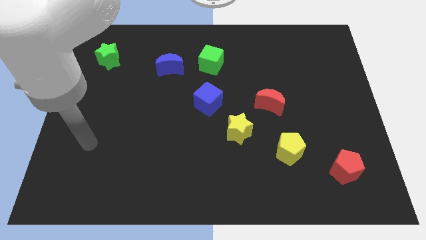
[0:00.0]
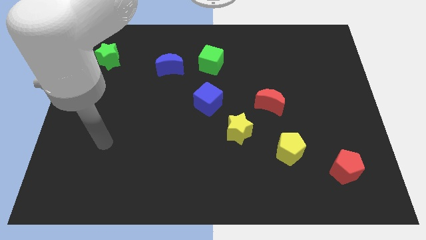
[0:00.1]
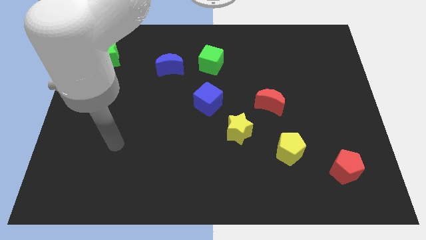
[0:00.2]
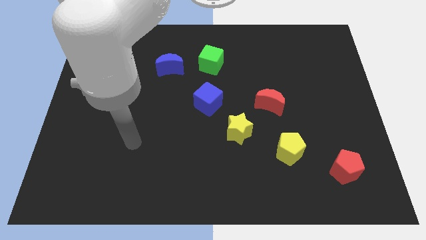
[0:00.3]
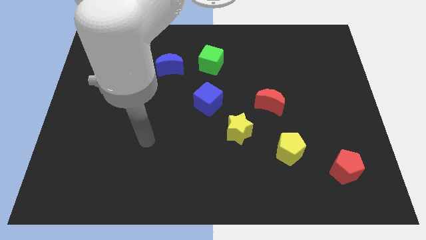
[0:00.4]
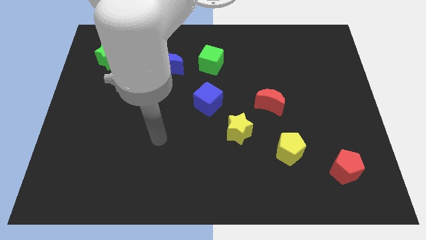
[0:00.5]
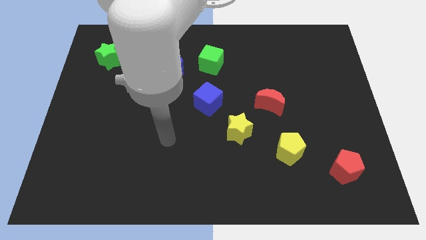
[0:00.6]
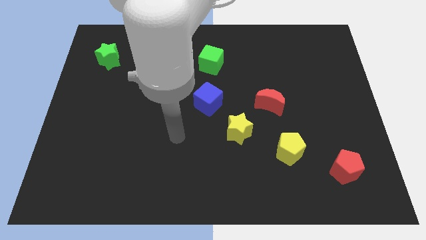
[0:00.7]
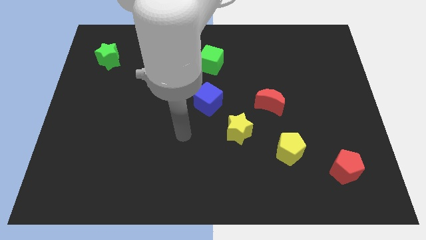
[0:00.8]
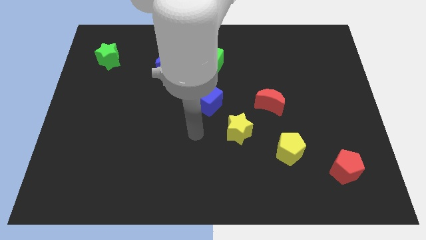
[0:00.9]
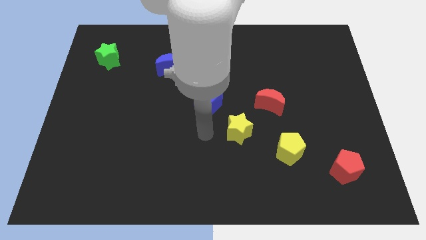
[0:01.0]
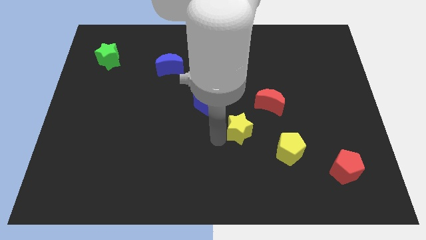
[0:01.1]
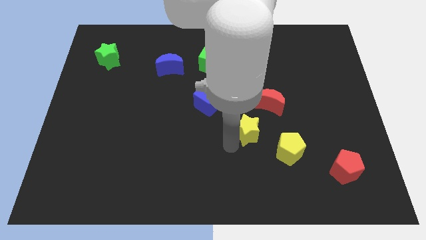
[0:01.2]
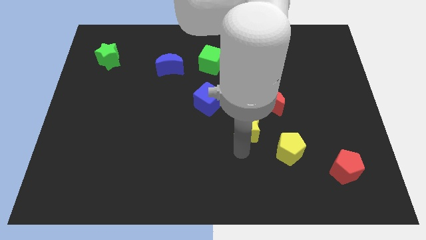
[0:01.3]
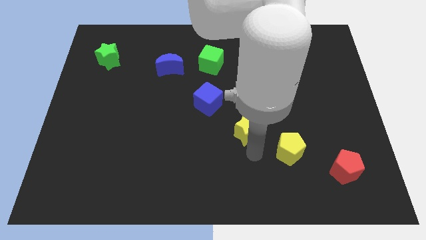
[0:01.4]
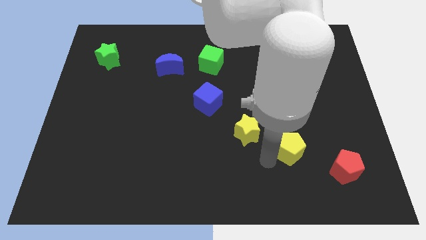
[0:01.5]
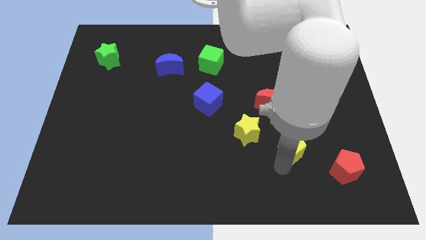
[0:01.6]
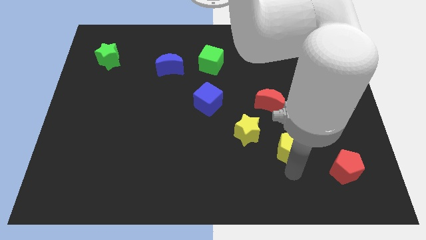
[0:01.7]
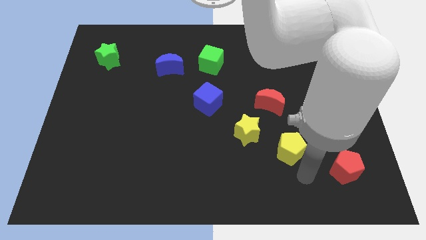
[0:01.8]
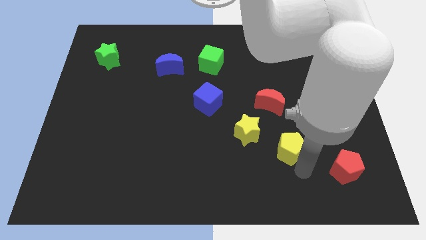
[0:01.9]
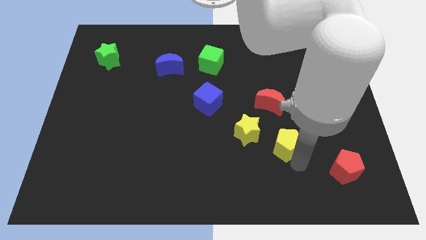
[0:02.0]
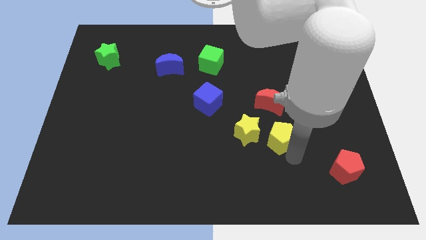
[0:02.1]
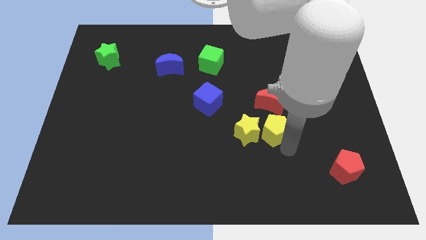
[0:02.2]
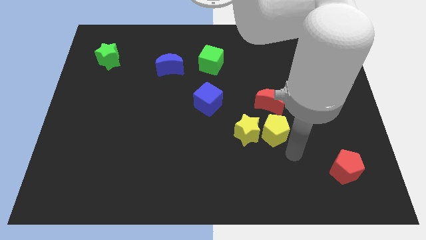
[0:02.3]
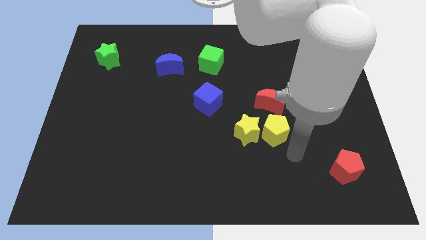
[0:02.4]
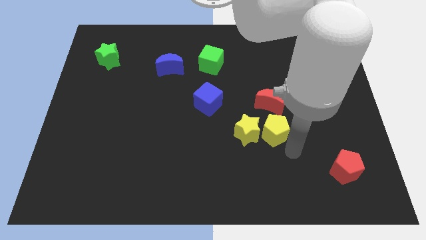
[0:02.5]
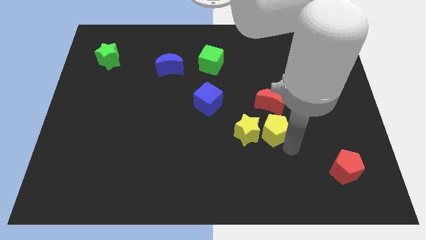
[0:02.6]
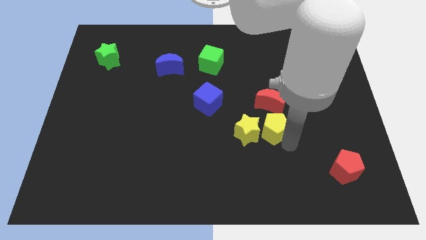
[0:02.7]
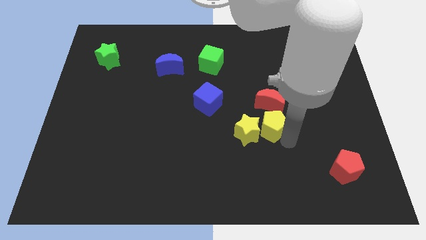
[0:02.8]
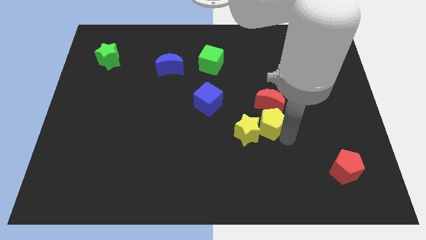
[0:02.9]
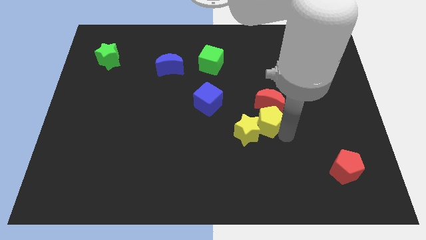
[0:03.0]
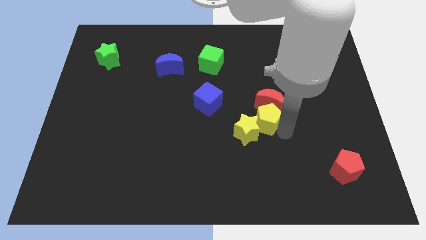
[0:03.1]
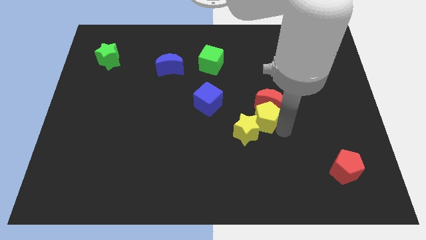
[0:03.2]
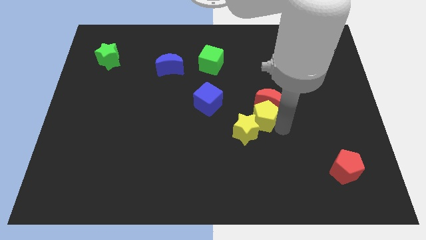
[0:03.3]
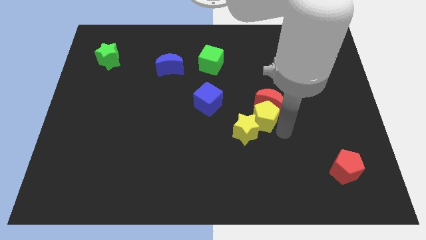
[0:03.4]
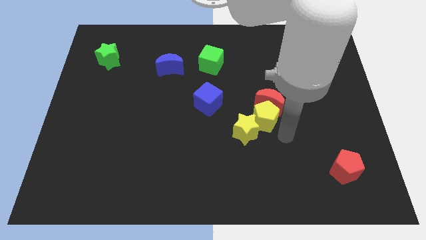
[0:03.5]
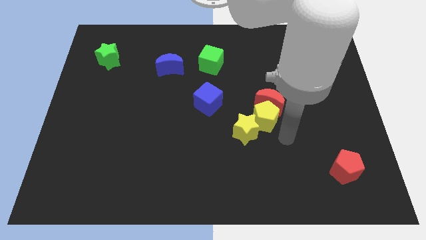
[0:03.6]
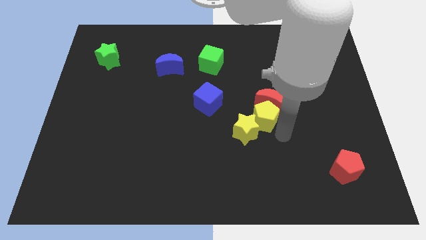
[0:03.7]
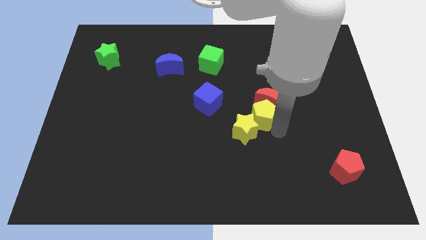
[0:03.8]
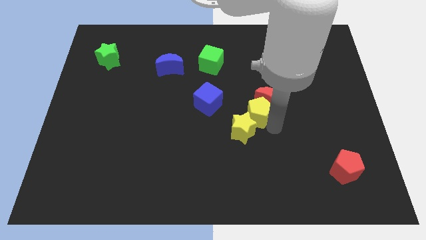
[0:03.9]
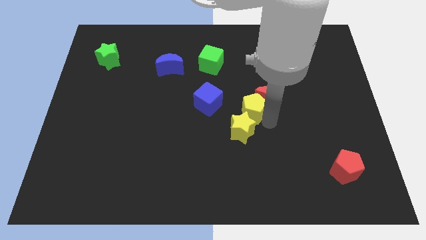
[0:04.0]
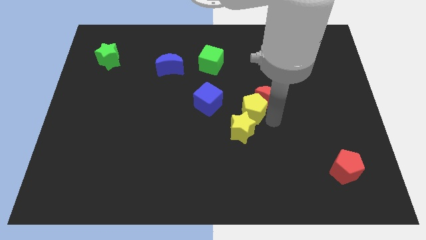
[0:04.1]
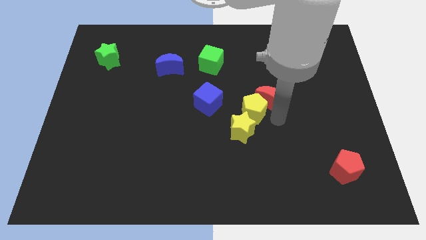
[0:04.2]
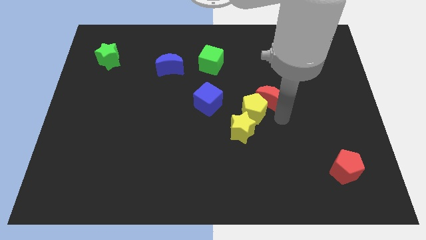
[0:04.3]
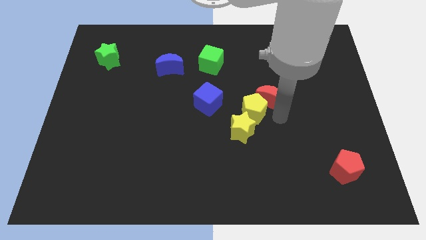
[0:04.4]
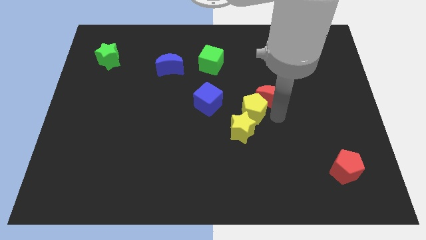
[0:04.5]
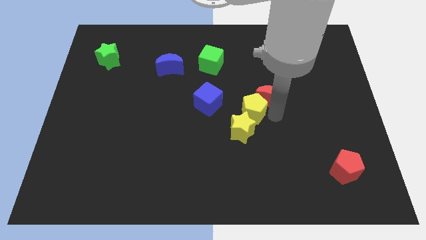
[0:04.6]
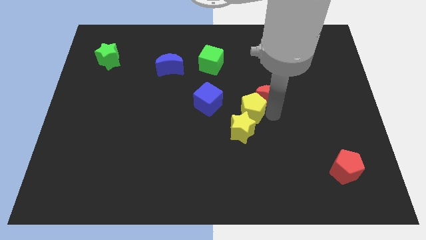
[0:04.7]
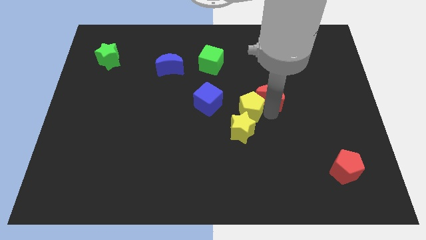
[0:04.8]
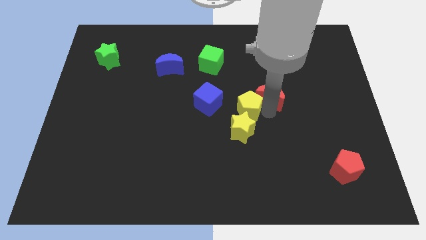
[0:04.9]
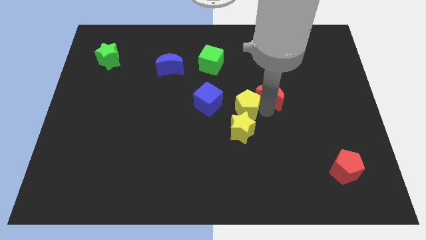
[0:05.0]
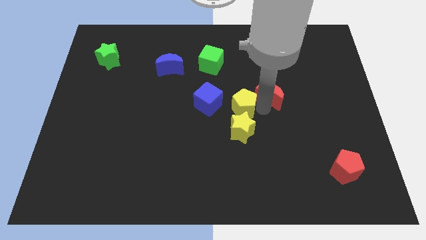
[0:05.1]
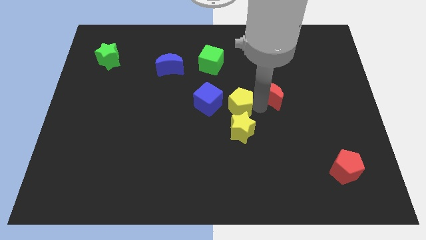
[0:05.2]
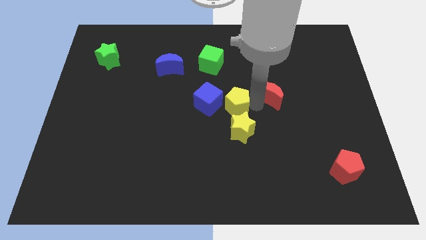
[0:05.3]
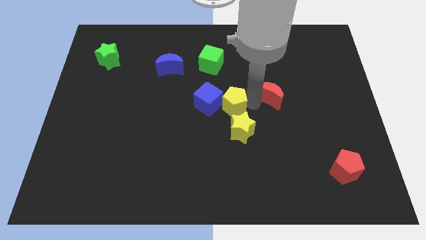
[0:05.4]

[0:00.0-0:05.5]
move the yellow pentagon towards the blue cube

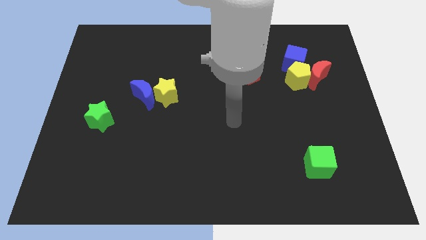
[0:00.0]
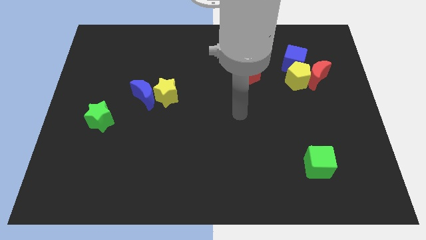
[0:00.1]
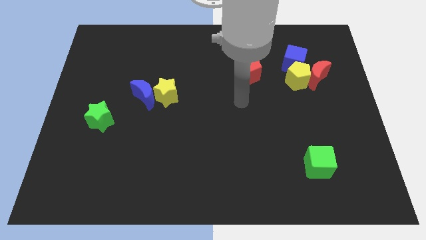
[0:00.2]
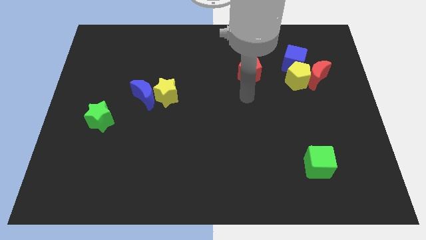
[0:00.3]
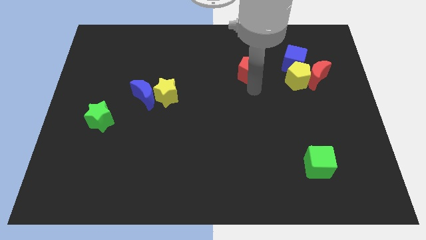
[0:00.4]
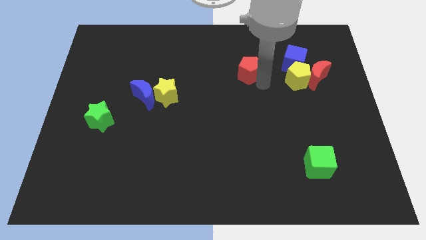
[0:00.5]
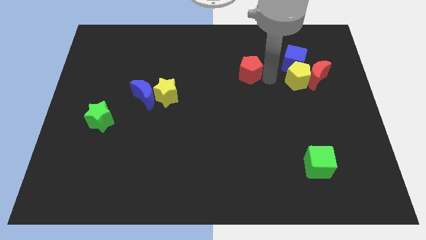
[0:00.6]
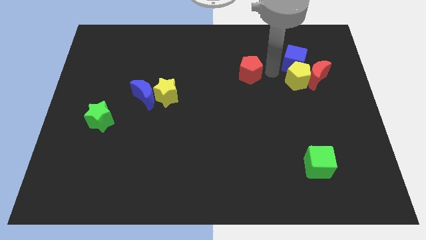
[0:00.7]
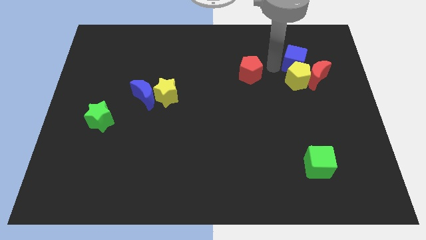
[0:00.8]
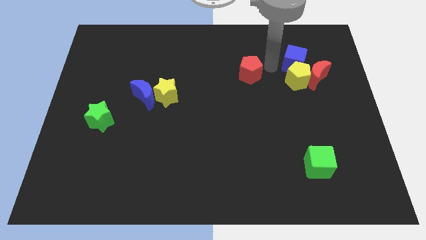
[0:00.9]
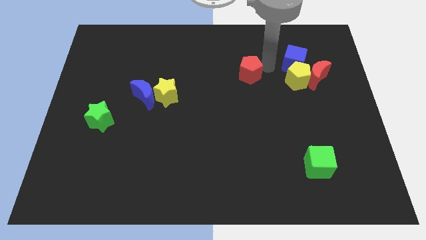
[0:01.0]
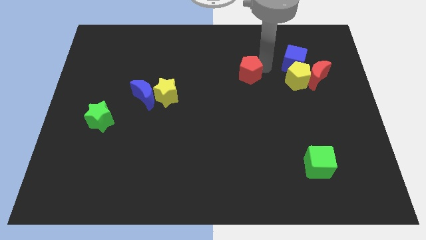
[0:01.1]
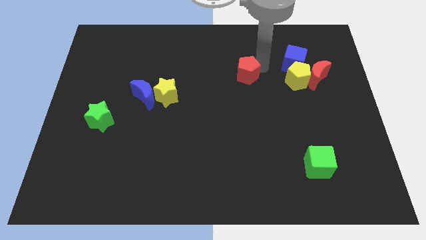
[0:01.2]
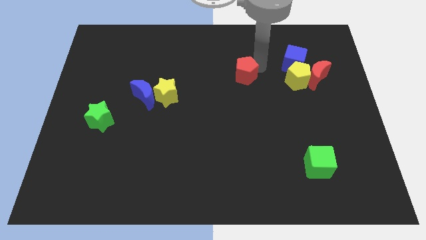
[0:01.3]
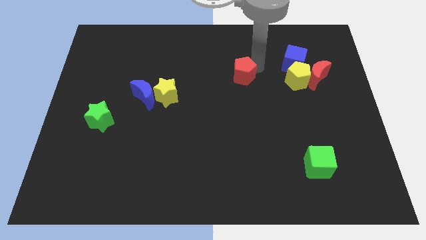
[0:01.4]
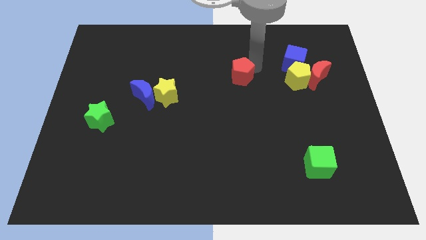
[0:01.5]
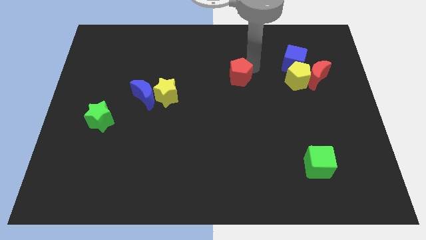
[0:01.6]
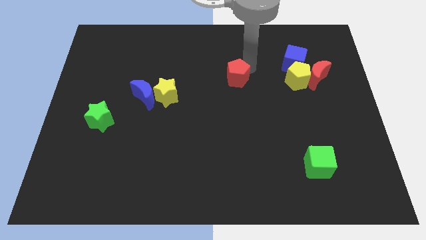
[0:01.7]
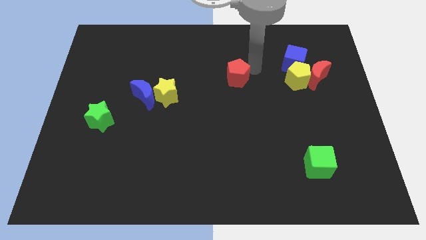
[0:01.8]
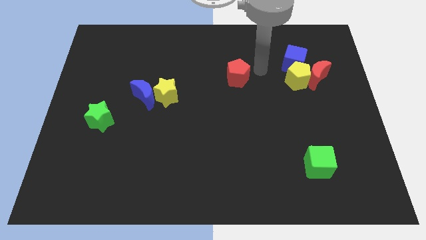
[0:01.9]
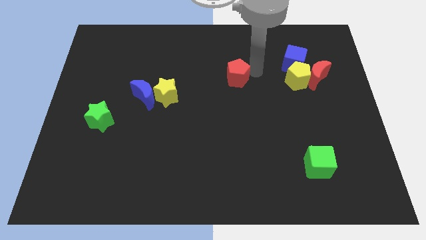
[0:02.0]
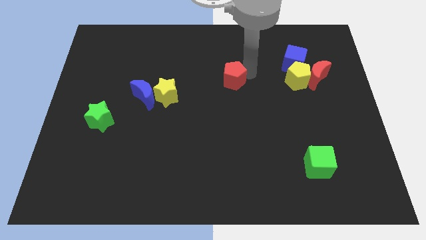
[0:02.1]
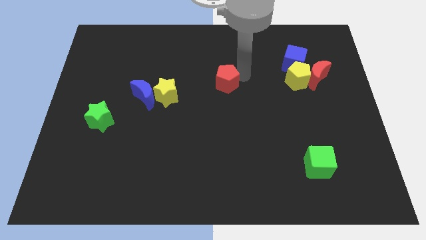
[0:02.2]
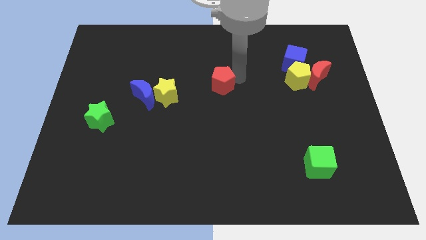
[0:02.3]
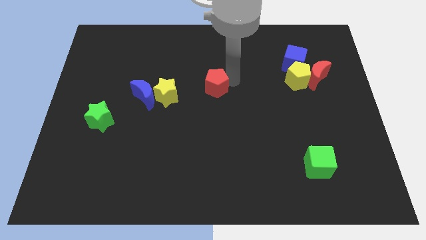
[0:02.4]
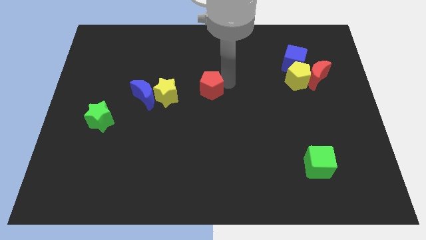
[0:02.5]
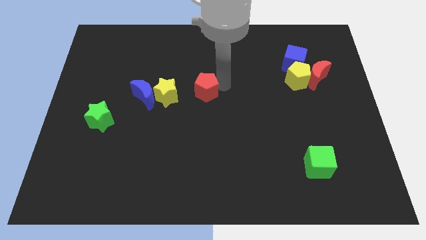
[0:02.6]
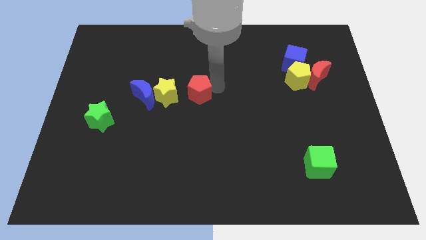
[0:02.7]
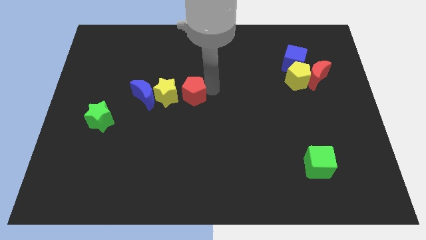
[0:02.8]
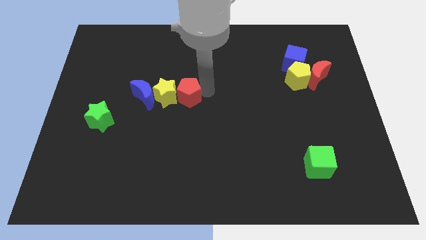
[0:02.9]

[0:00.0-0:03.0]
put the red pentagon to the yellow star
